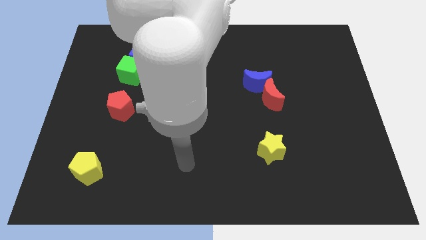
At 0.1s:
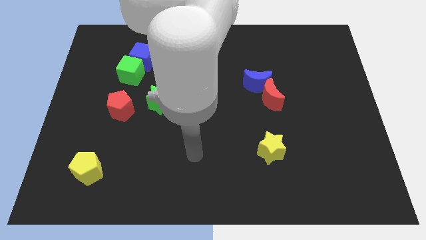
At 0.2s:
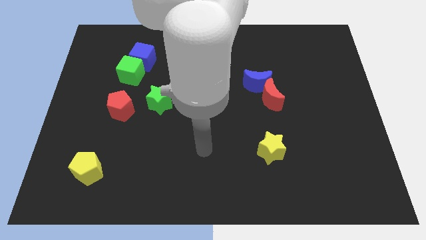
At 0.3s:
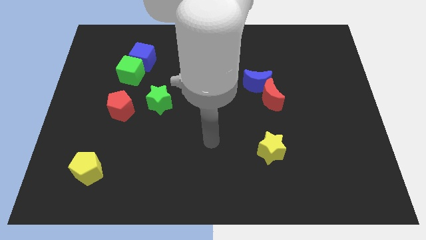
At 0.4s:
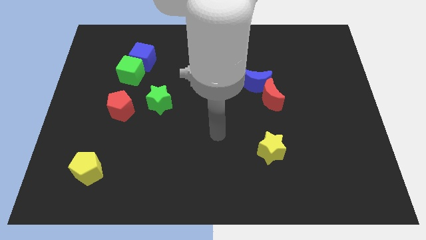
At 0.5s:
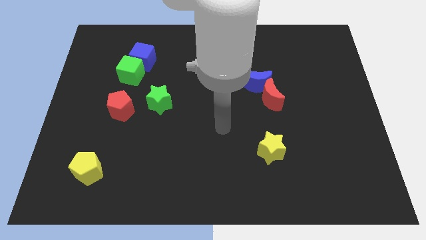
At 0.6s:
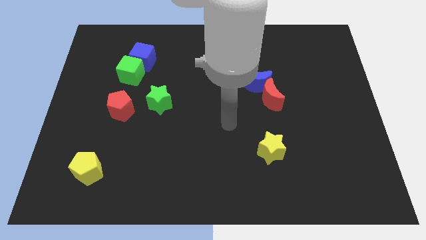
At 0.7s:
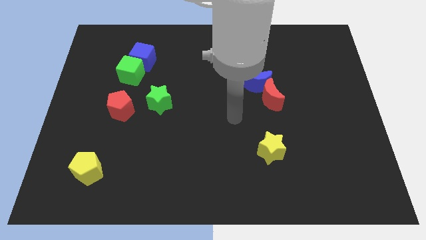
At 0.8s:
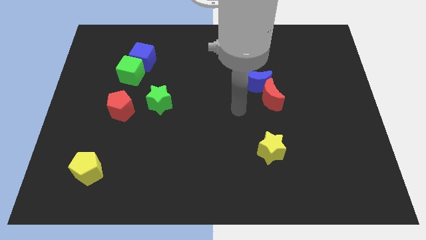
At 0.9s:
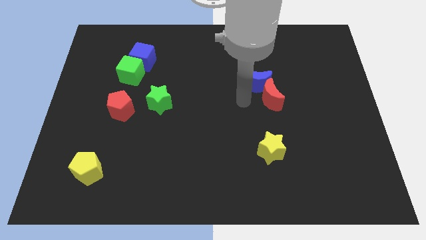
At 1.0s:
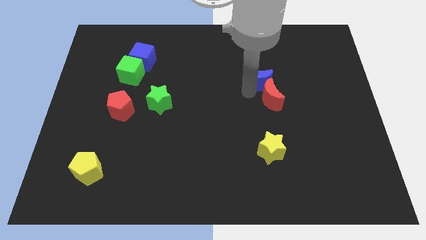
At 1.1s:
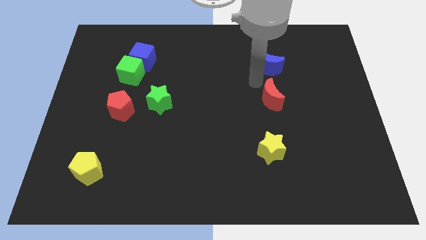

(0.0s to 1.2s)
pull the red moon apart from the blue moon

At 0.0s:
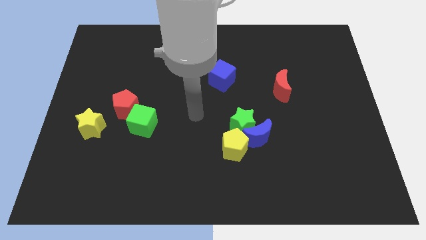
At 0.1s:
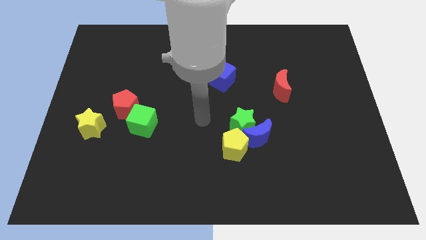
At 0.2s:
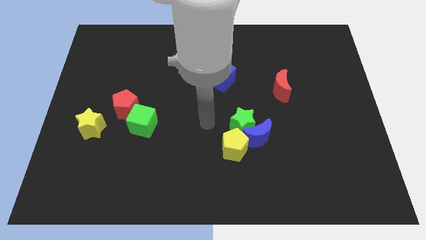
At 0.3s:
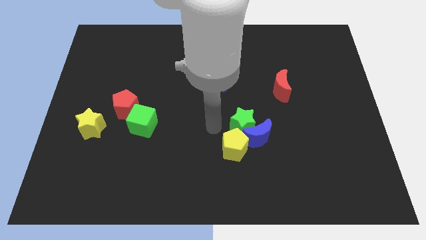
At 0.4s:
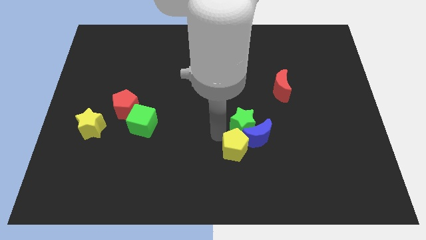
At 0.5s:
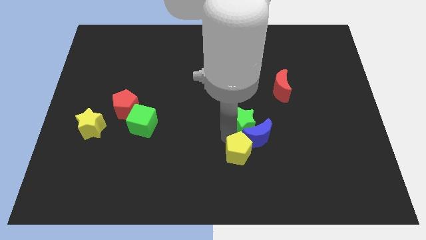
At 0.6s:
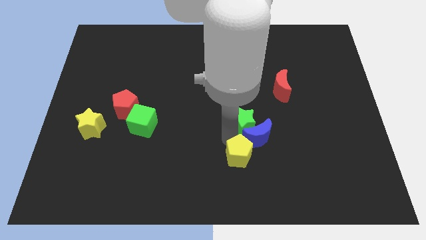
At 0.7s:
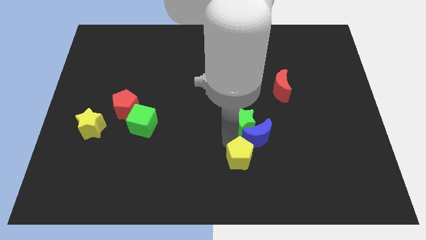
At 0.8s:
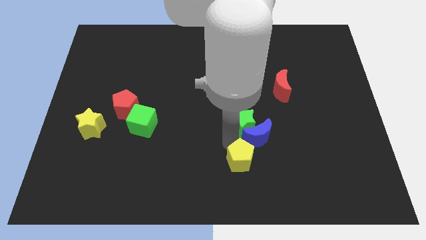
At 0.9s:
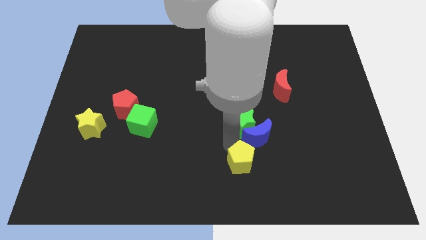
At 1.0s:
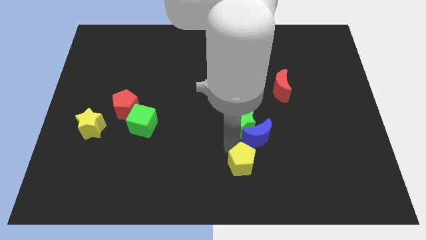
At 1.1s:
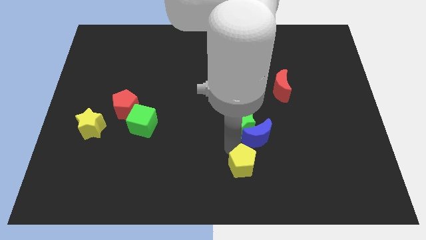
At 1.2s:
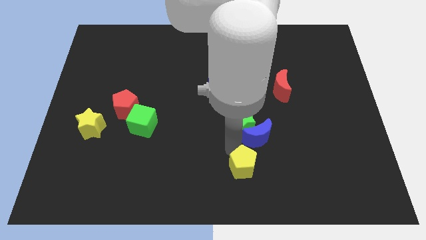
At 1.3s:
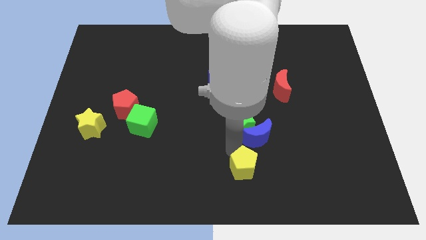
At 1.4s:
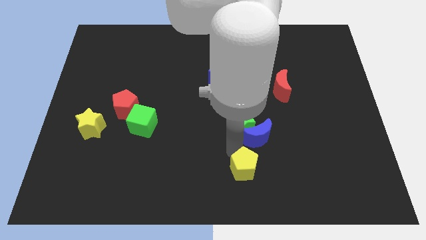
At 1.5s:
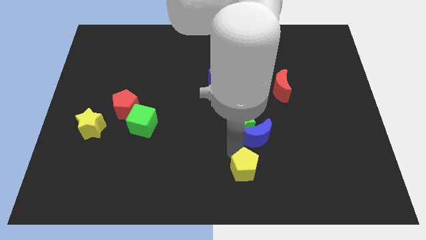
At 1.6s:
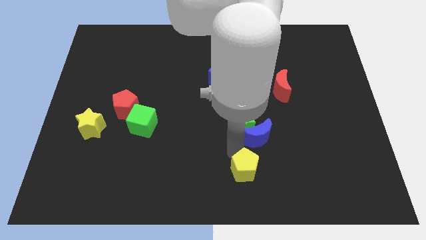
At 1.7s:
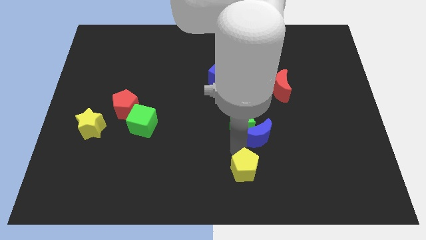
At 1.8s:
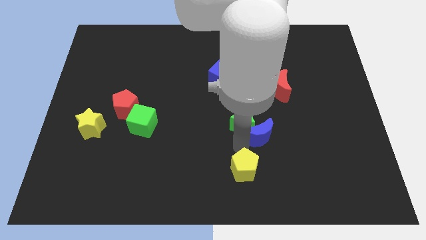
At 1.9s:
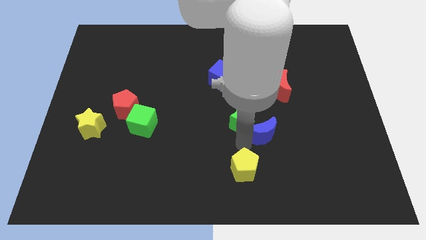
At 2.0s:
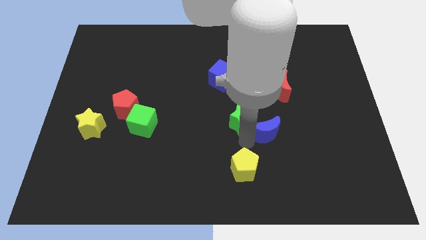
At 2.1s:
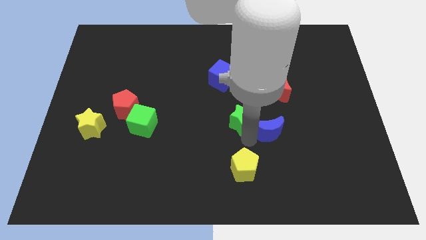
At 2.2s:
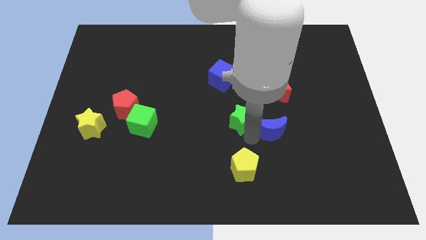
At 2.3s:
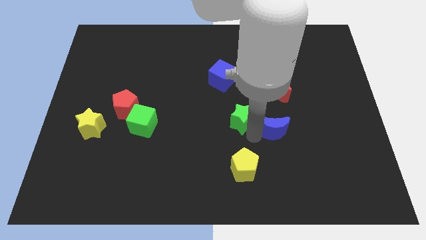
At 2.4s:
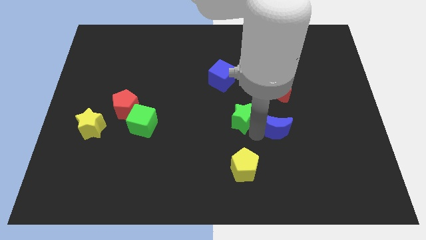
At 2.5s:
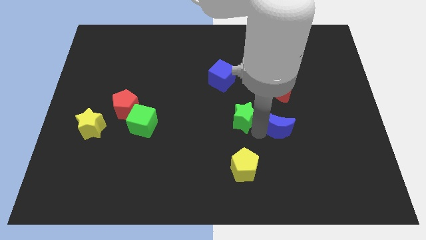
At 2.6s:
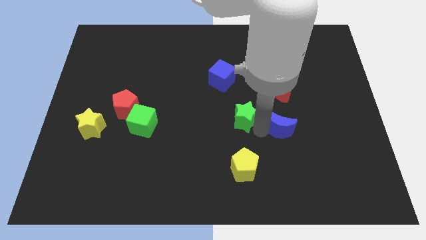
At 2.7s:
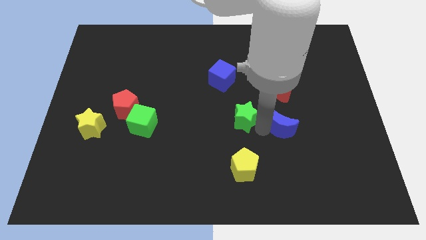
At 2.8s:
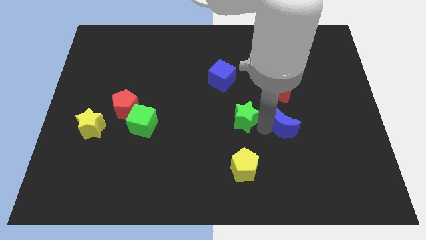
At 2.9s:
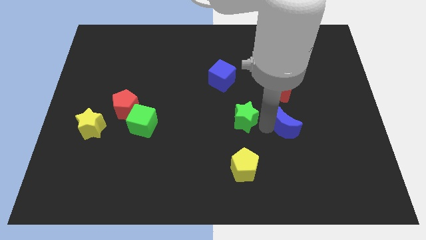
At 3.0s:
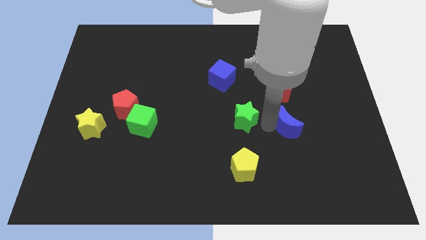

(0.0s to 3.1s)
separate the blue moon from the green star and yellow pentagon

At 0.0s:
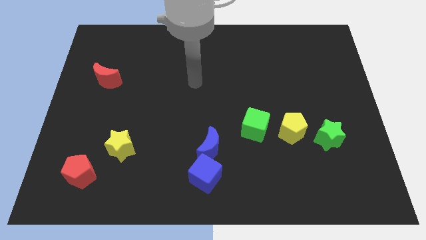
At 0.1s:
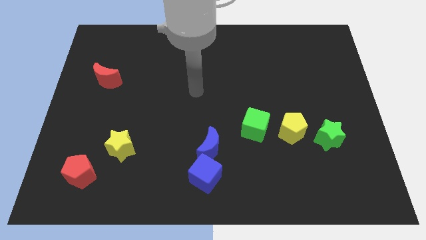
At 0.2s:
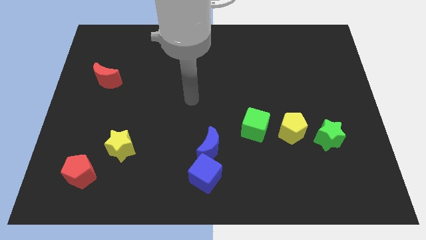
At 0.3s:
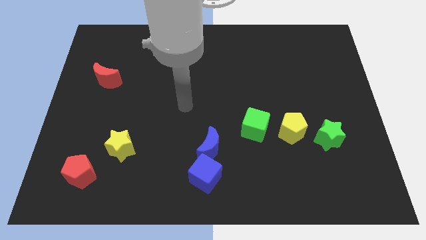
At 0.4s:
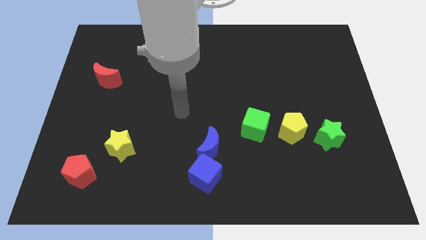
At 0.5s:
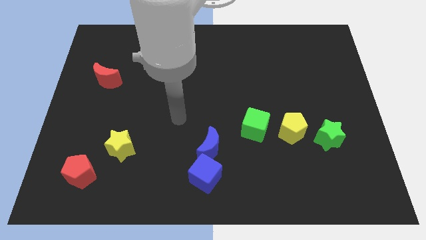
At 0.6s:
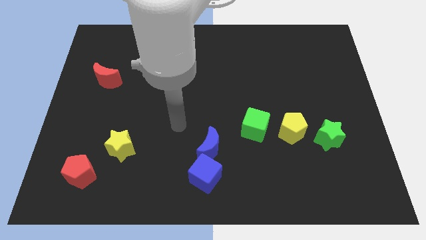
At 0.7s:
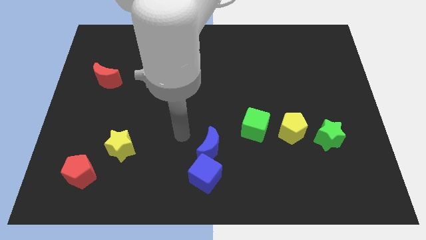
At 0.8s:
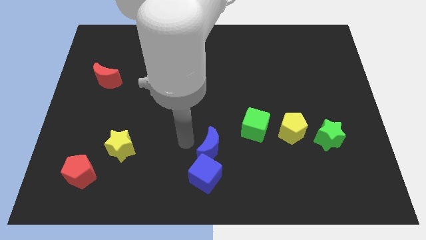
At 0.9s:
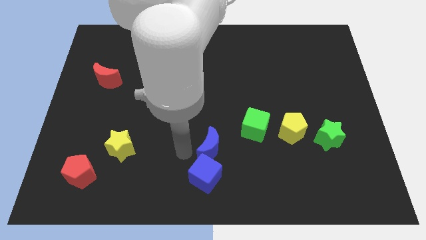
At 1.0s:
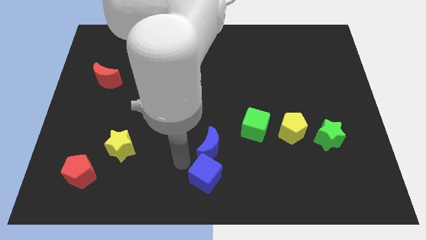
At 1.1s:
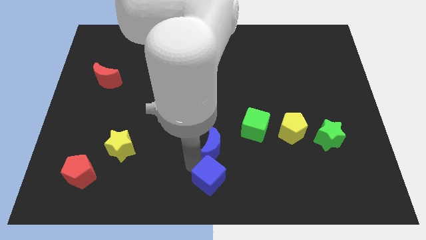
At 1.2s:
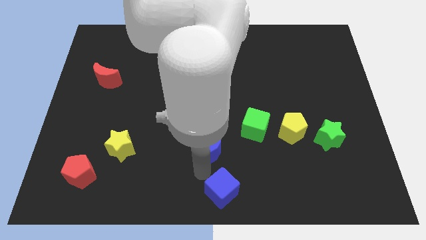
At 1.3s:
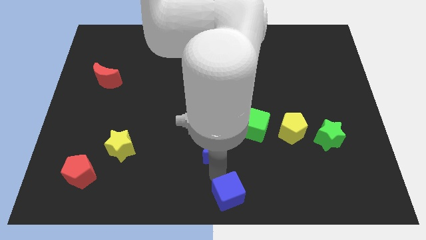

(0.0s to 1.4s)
pull the blue moon apart from the blue cube

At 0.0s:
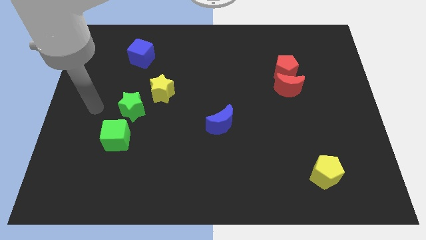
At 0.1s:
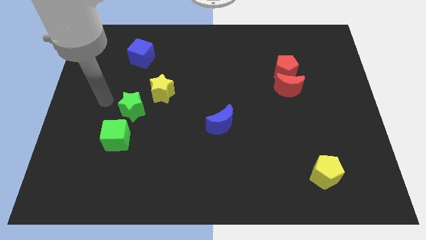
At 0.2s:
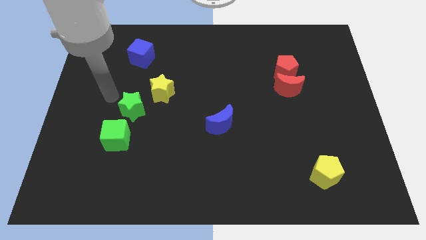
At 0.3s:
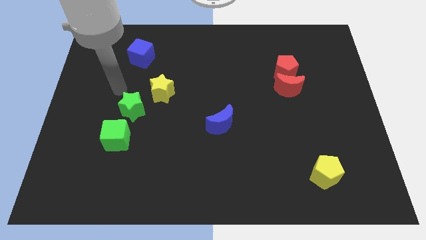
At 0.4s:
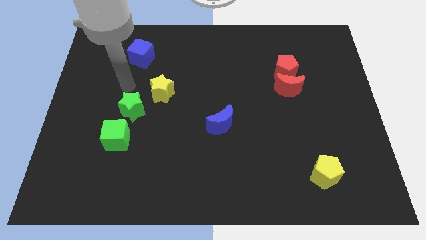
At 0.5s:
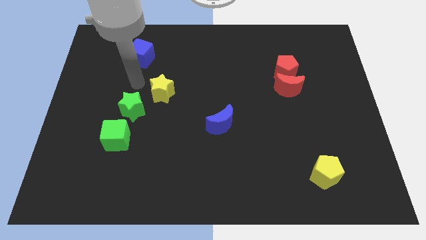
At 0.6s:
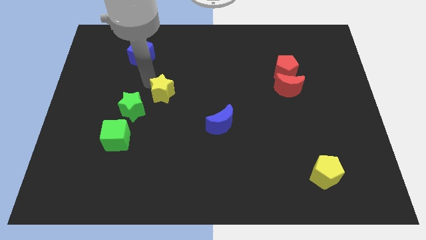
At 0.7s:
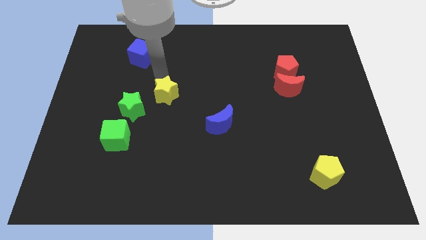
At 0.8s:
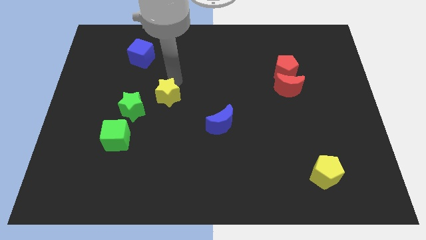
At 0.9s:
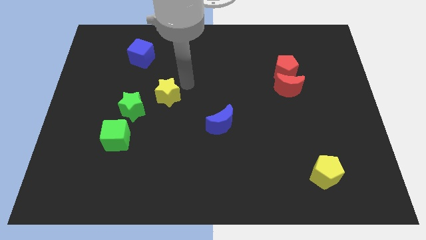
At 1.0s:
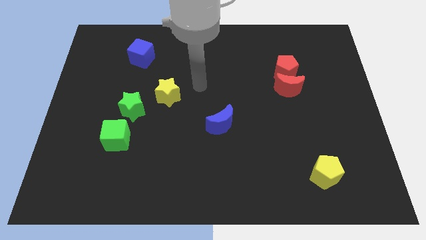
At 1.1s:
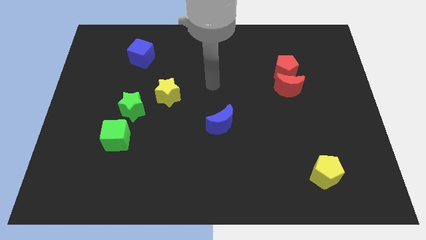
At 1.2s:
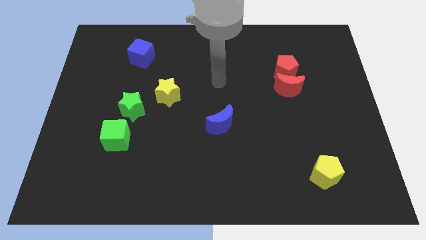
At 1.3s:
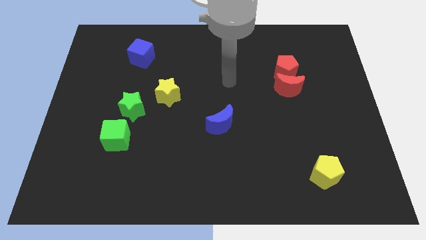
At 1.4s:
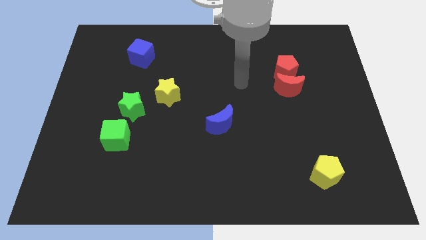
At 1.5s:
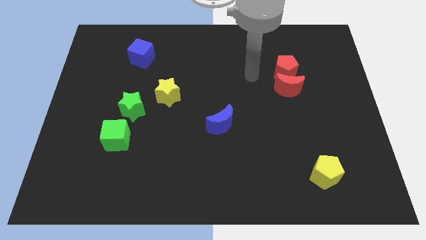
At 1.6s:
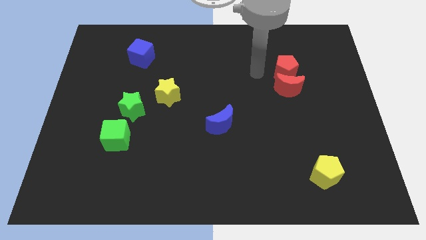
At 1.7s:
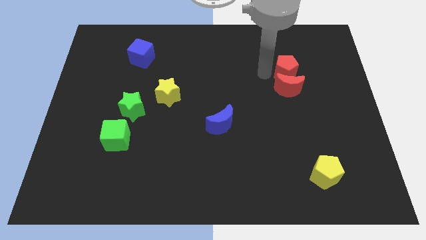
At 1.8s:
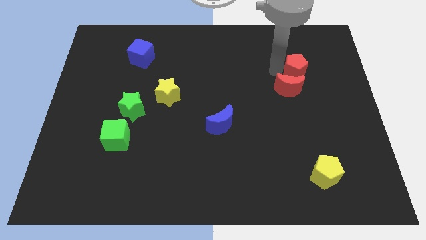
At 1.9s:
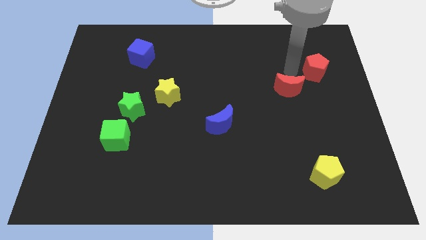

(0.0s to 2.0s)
pull the red moon apart from the red pentagon

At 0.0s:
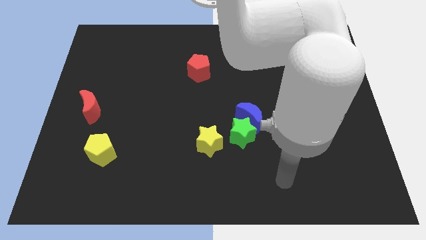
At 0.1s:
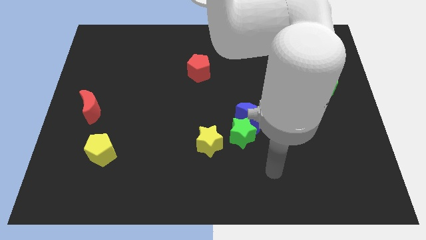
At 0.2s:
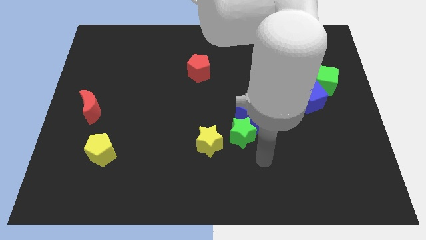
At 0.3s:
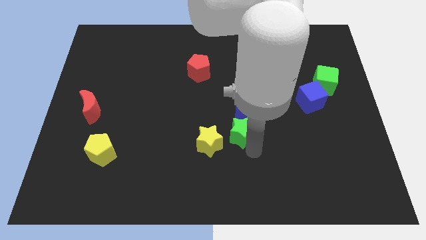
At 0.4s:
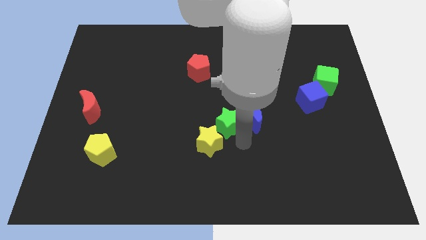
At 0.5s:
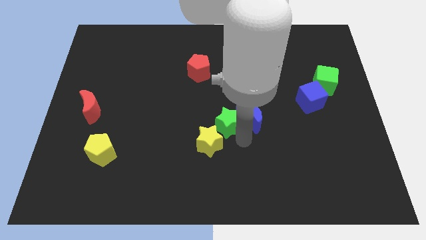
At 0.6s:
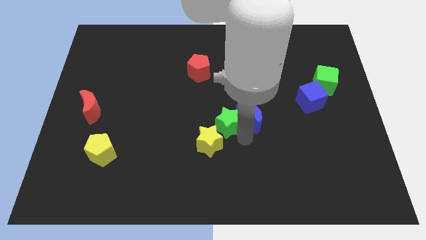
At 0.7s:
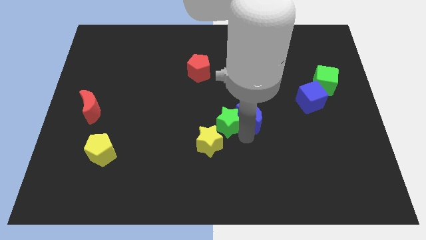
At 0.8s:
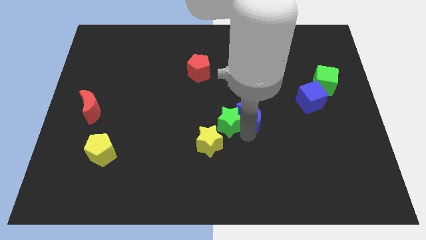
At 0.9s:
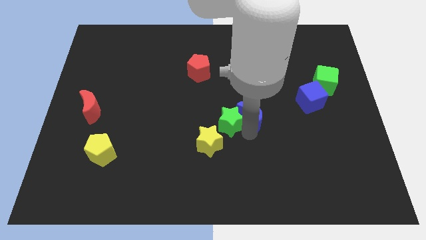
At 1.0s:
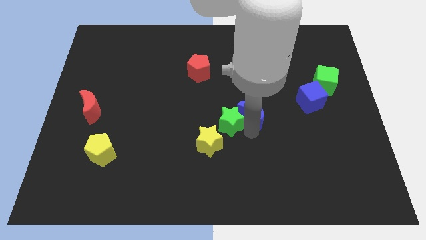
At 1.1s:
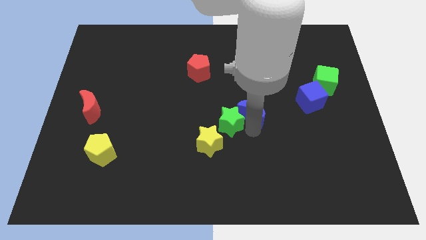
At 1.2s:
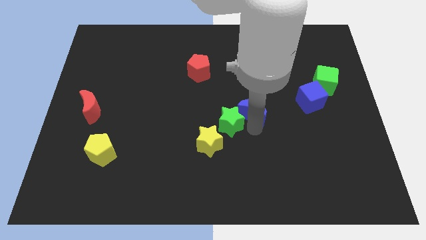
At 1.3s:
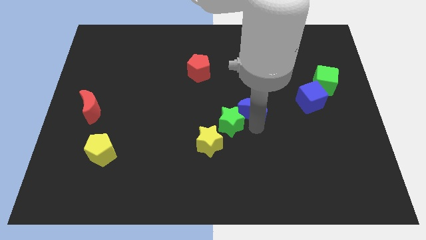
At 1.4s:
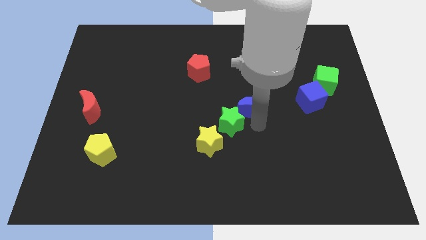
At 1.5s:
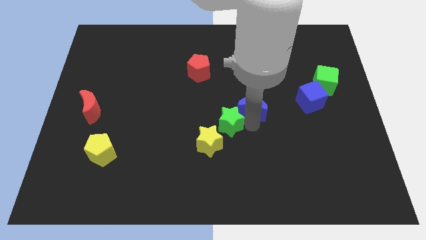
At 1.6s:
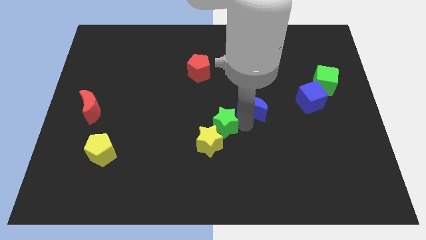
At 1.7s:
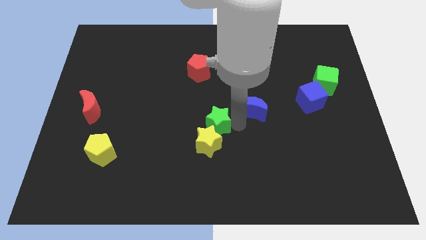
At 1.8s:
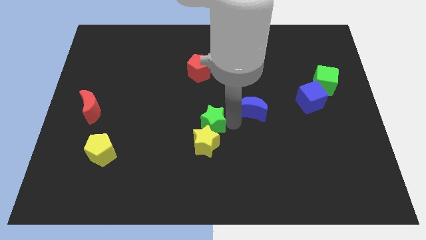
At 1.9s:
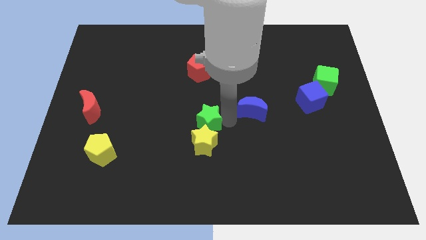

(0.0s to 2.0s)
separate the blue moon from the green star
